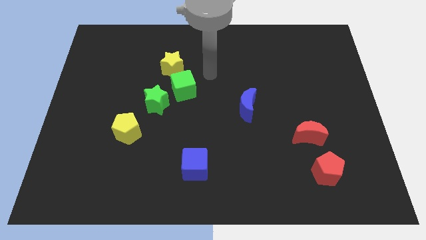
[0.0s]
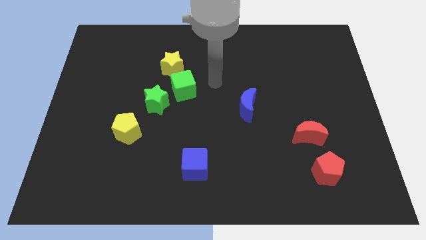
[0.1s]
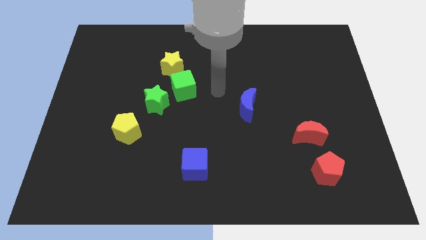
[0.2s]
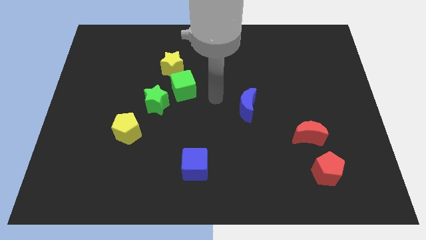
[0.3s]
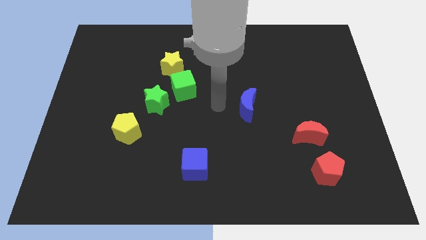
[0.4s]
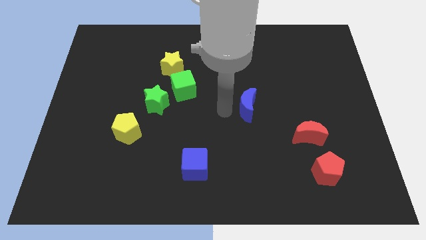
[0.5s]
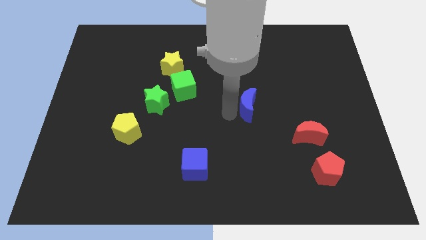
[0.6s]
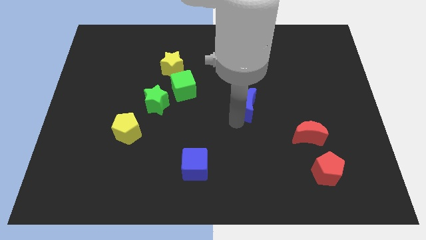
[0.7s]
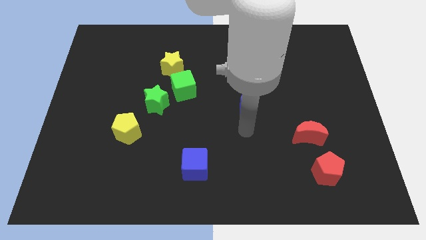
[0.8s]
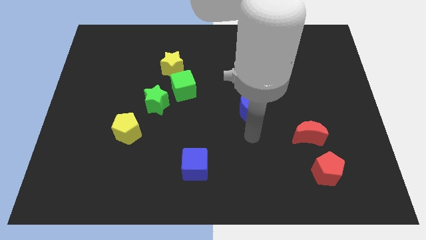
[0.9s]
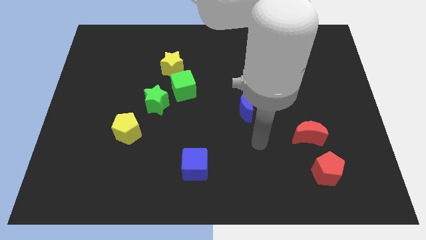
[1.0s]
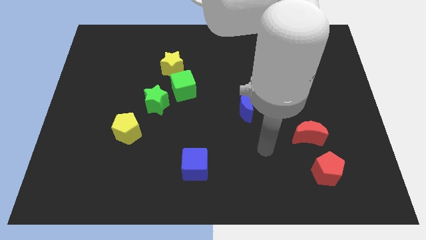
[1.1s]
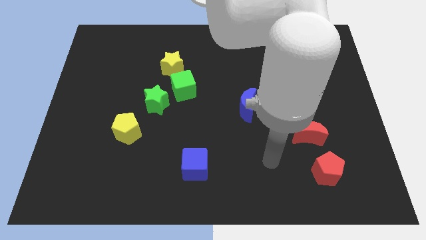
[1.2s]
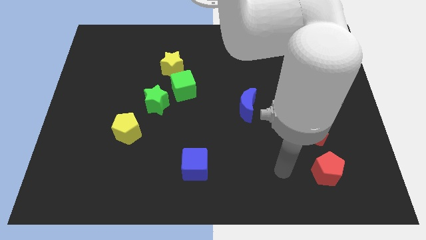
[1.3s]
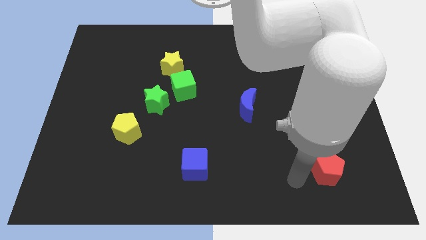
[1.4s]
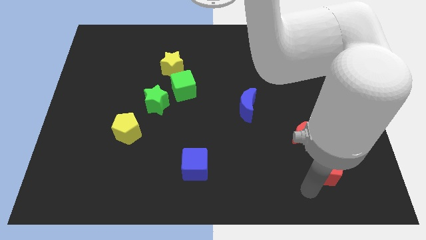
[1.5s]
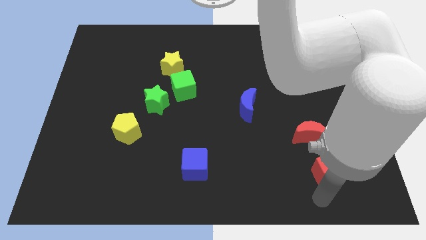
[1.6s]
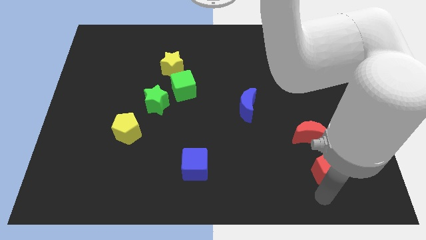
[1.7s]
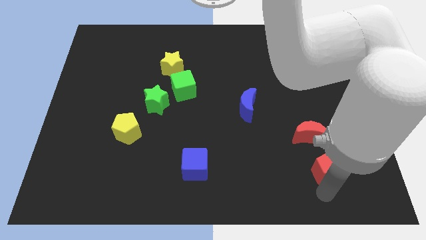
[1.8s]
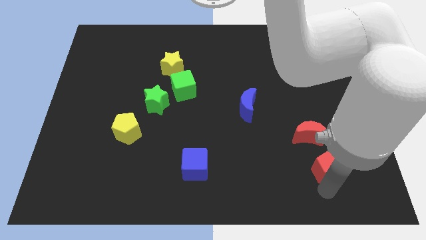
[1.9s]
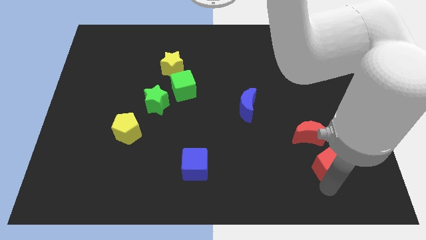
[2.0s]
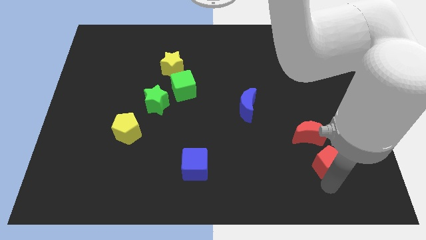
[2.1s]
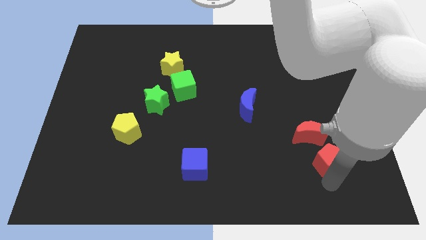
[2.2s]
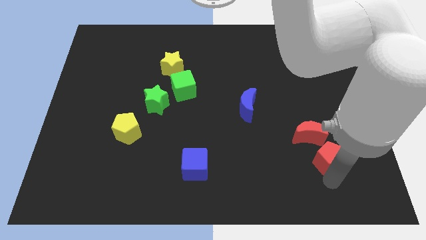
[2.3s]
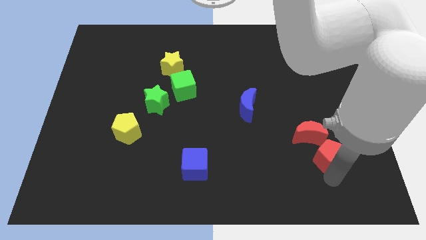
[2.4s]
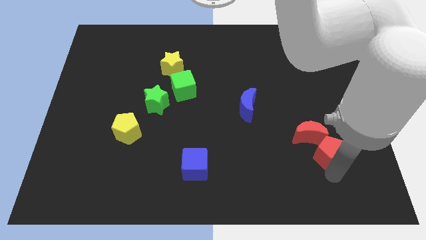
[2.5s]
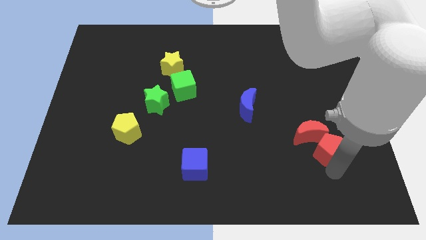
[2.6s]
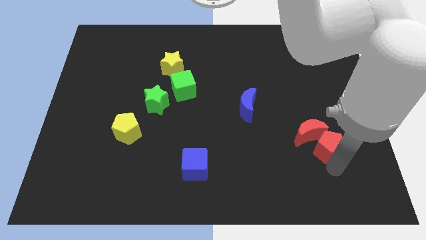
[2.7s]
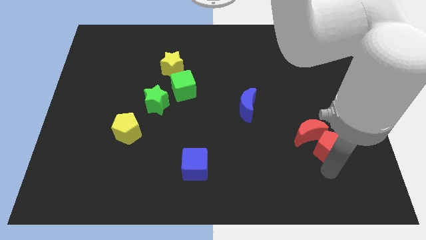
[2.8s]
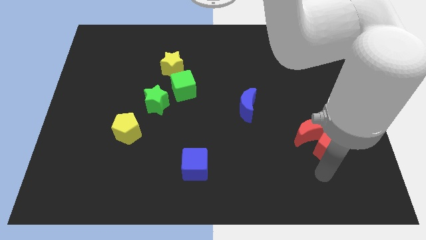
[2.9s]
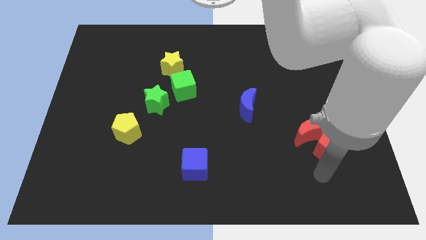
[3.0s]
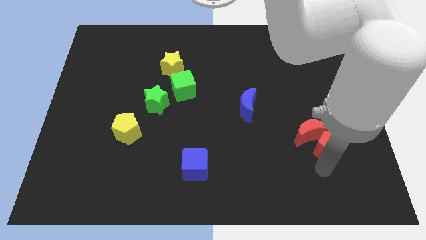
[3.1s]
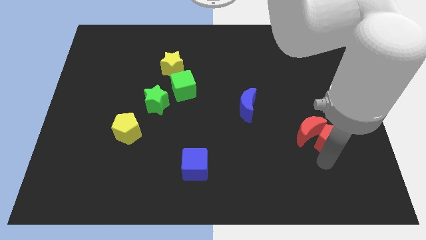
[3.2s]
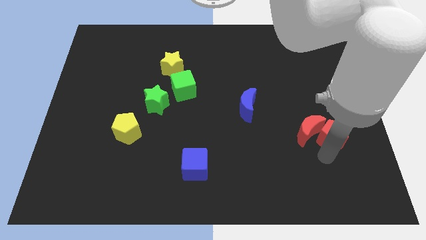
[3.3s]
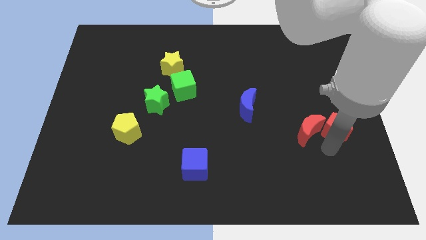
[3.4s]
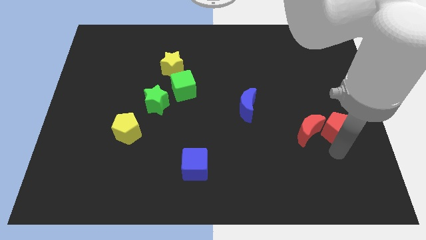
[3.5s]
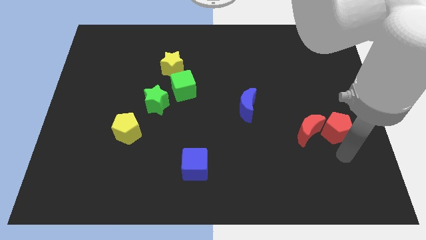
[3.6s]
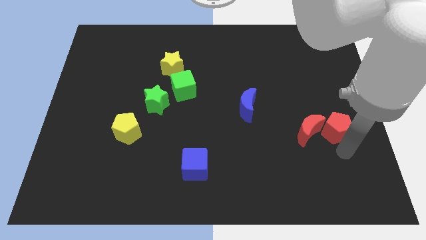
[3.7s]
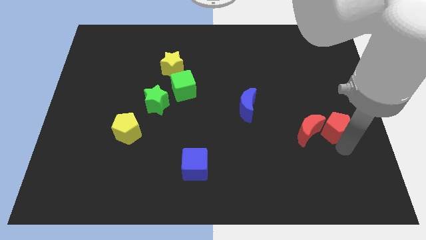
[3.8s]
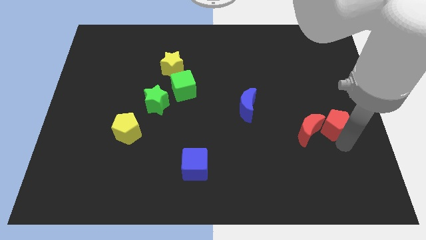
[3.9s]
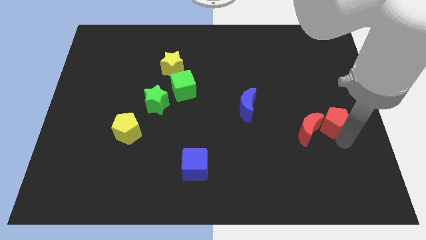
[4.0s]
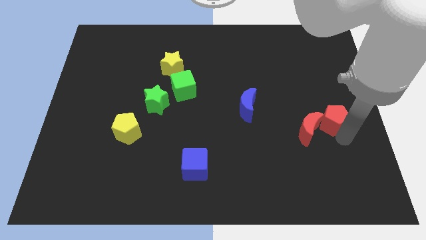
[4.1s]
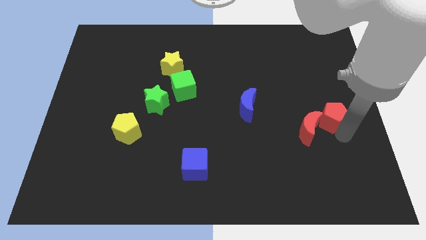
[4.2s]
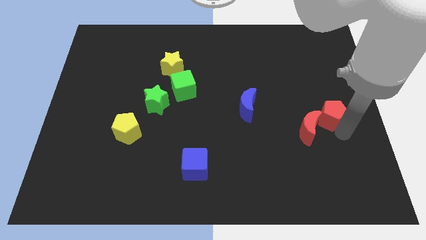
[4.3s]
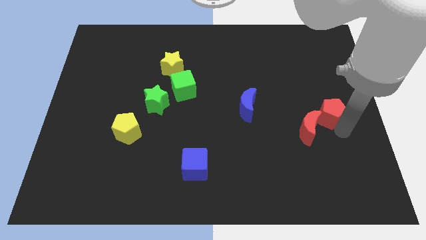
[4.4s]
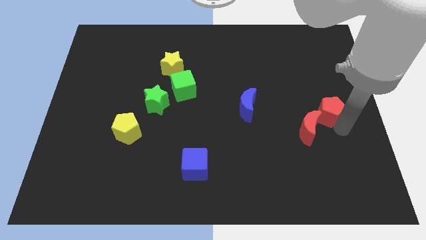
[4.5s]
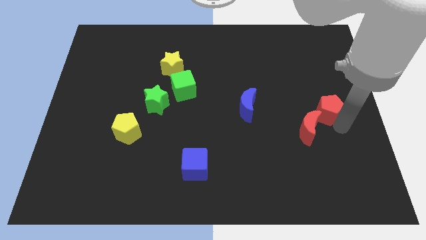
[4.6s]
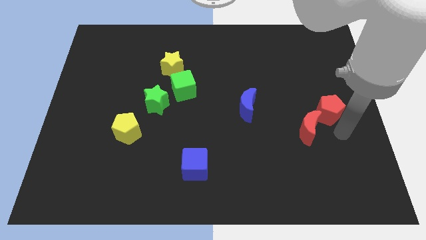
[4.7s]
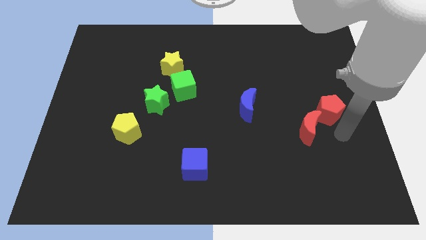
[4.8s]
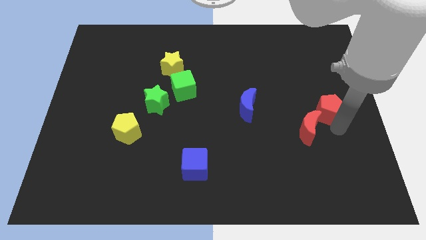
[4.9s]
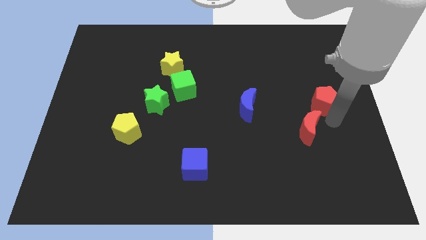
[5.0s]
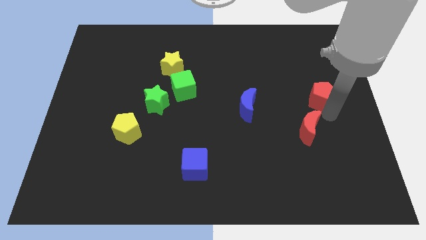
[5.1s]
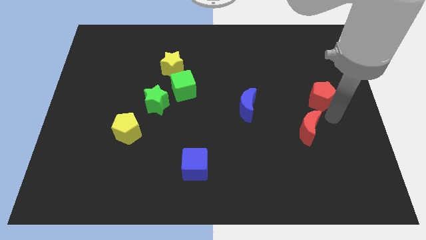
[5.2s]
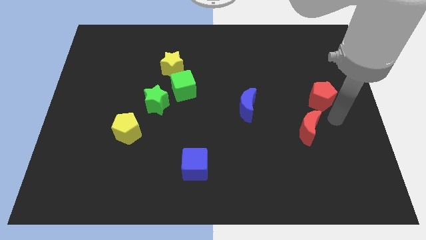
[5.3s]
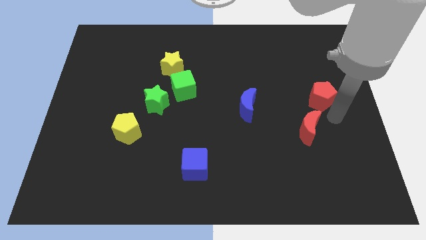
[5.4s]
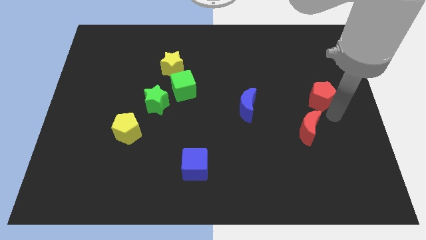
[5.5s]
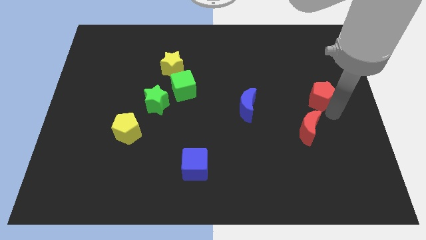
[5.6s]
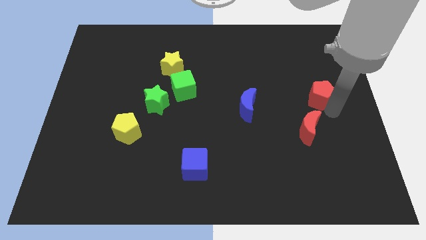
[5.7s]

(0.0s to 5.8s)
push the red pentagon upwards

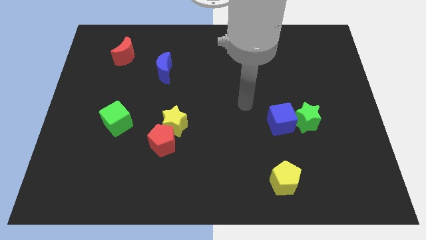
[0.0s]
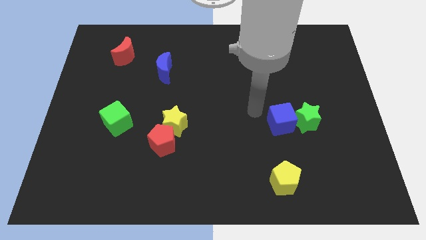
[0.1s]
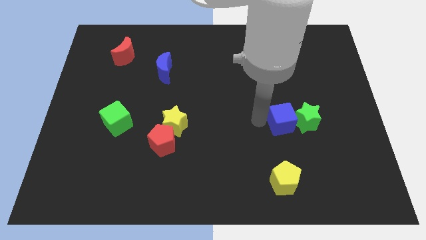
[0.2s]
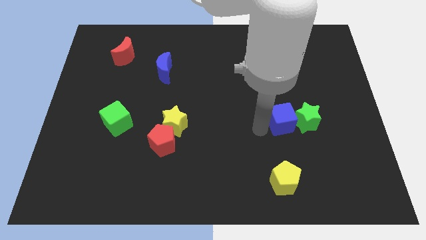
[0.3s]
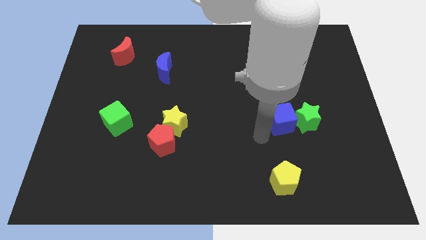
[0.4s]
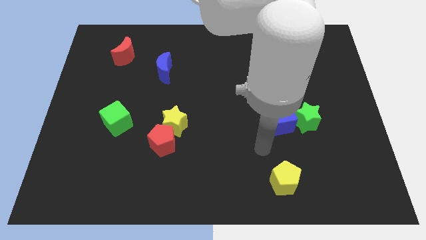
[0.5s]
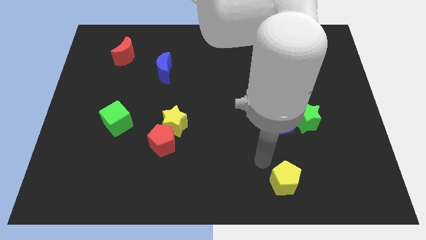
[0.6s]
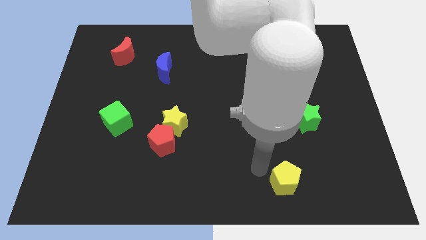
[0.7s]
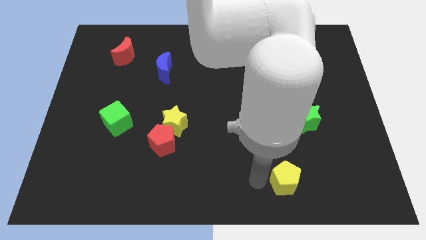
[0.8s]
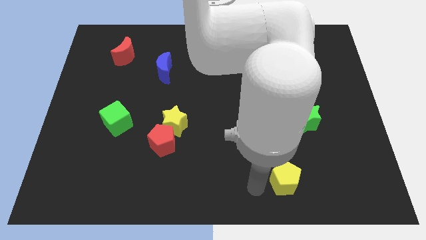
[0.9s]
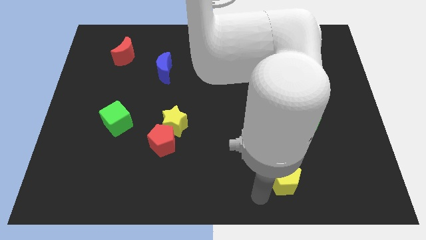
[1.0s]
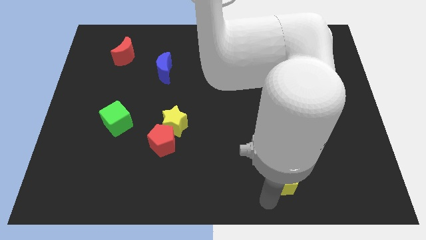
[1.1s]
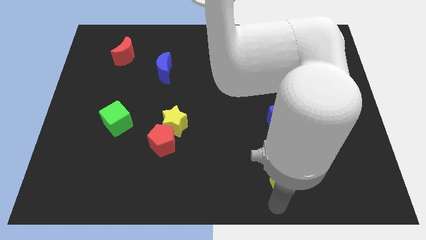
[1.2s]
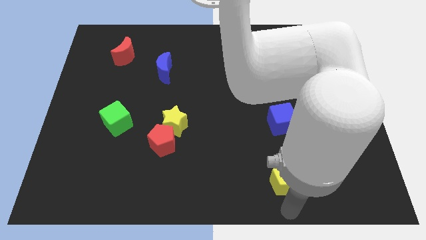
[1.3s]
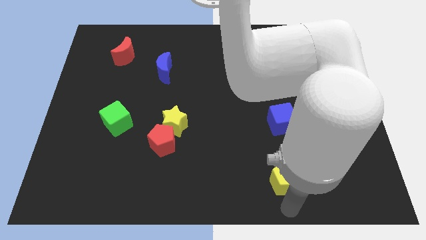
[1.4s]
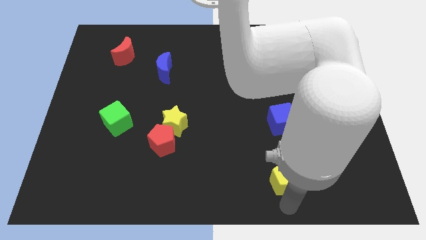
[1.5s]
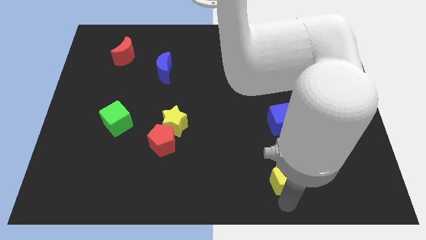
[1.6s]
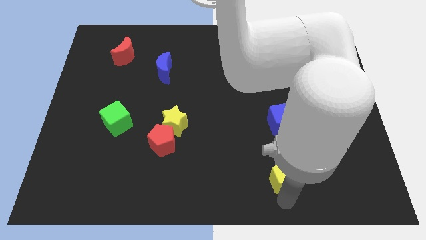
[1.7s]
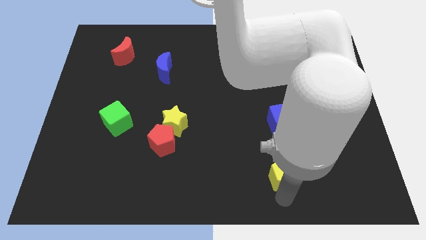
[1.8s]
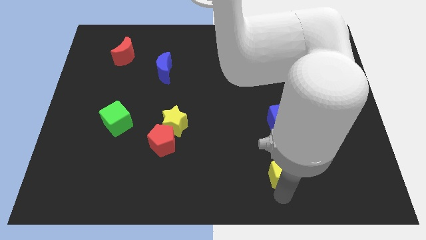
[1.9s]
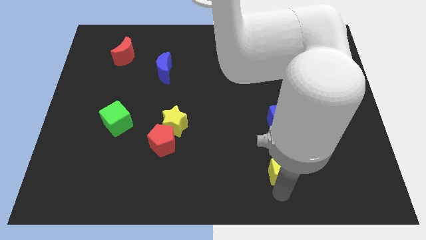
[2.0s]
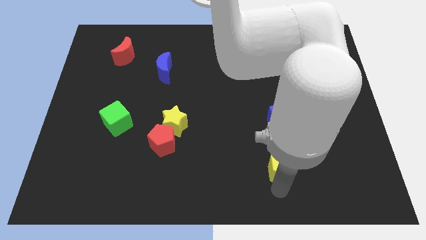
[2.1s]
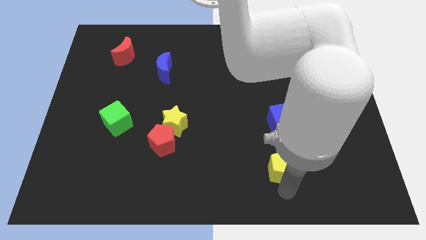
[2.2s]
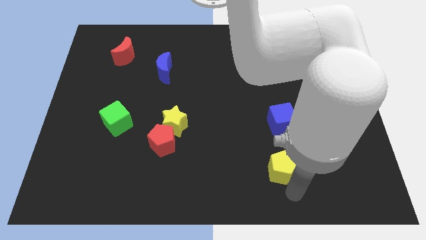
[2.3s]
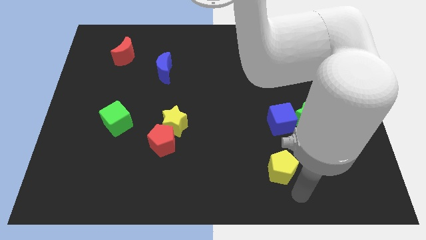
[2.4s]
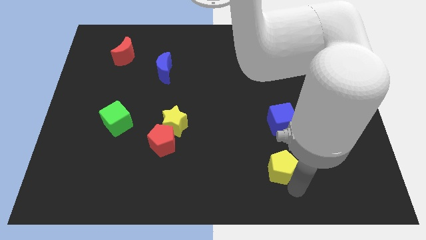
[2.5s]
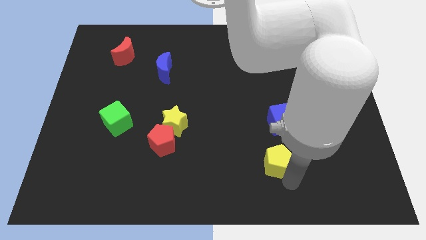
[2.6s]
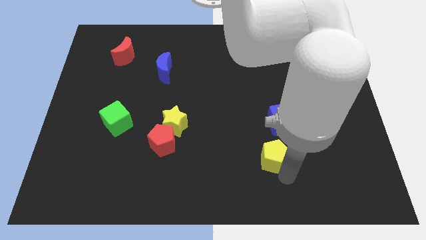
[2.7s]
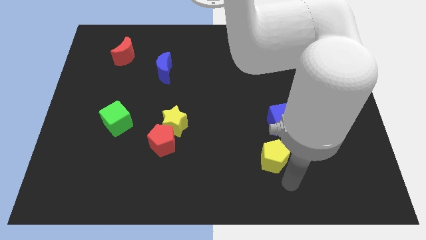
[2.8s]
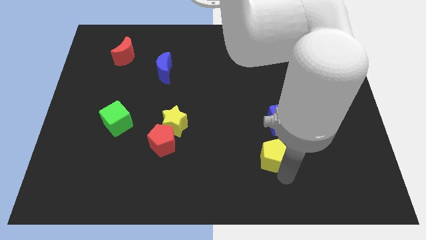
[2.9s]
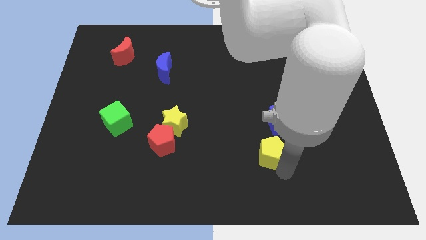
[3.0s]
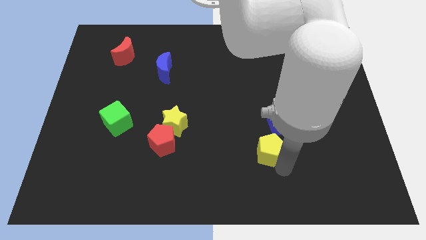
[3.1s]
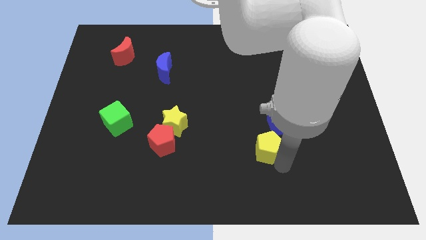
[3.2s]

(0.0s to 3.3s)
slightly slide the yellow pentagon upwards
